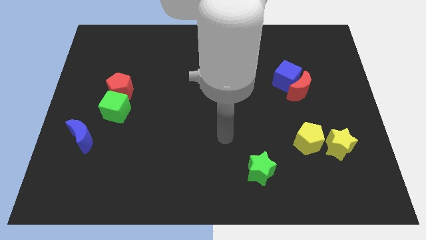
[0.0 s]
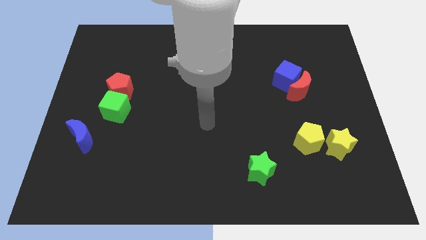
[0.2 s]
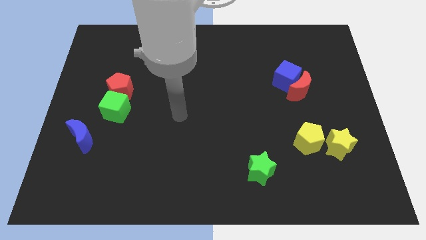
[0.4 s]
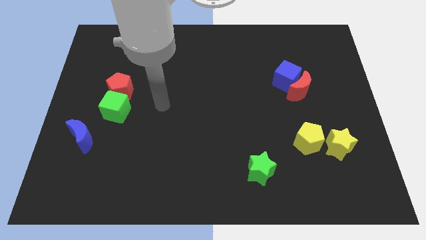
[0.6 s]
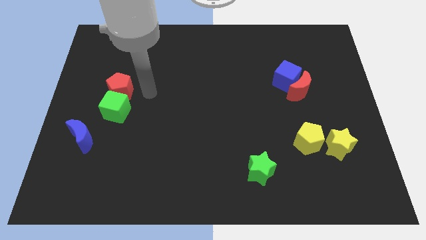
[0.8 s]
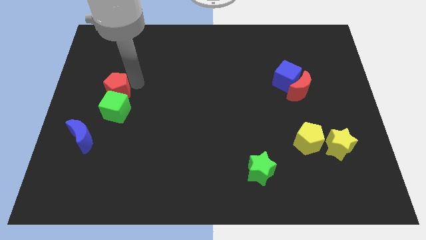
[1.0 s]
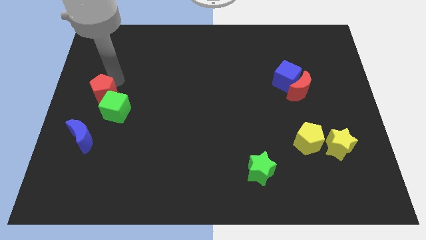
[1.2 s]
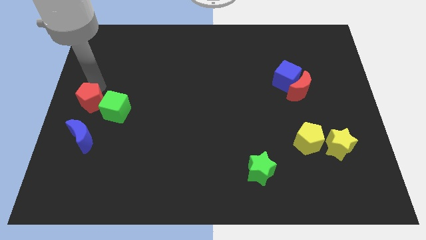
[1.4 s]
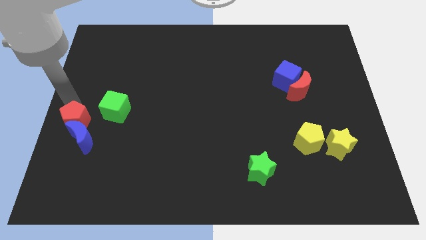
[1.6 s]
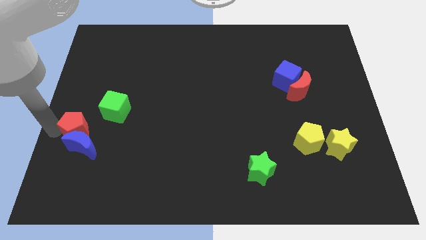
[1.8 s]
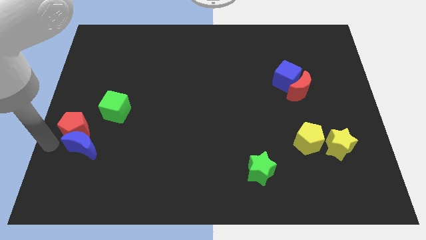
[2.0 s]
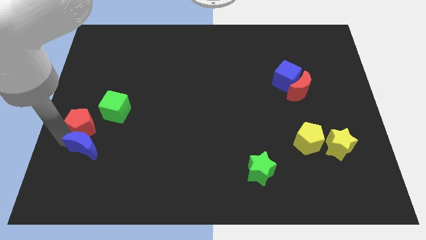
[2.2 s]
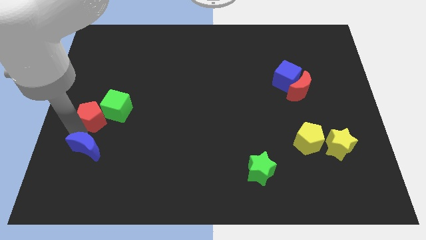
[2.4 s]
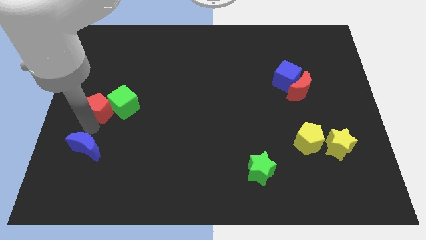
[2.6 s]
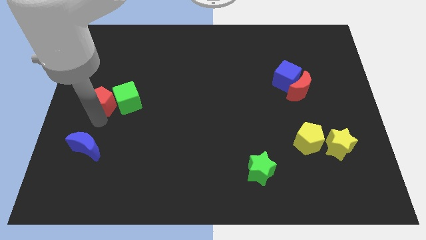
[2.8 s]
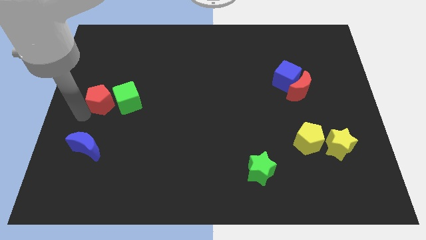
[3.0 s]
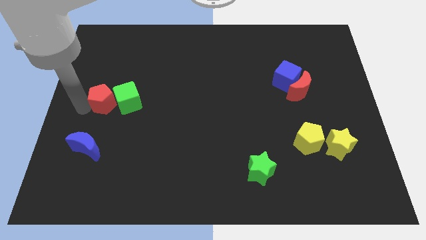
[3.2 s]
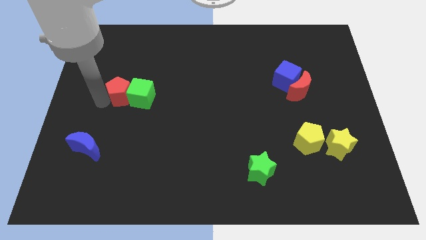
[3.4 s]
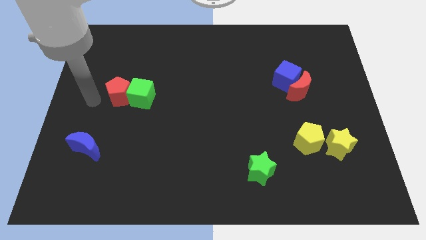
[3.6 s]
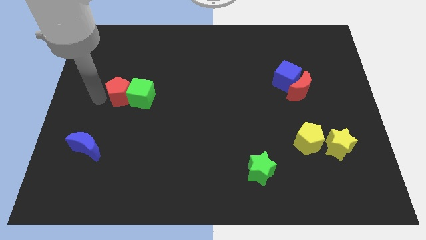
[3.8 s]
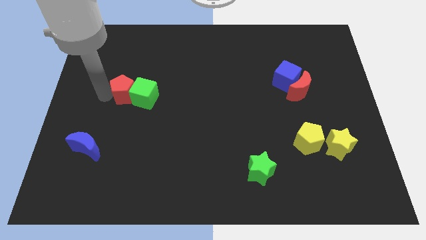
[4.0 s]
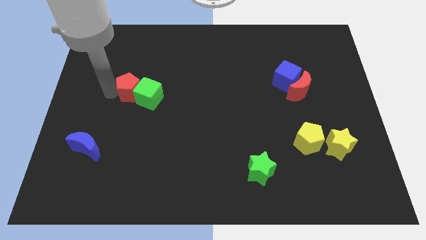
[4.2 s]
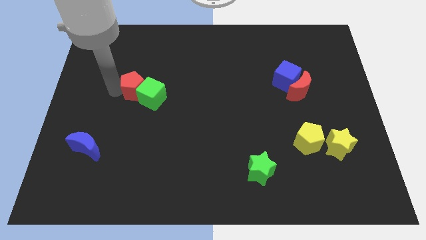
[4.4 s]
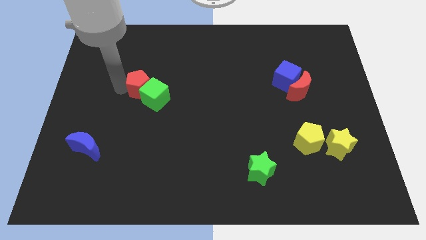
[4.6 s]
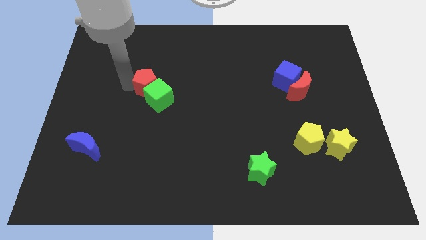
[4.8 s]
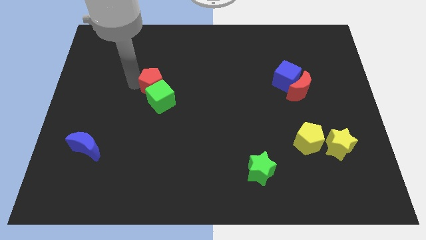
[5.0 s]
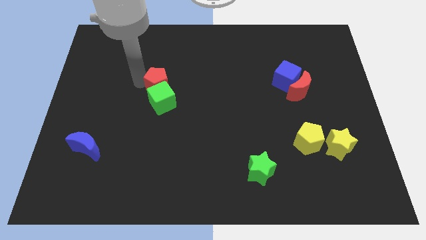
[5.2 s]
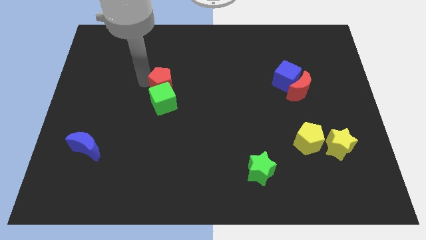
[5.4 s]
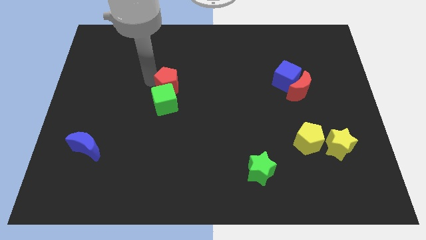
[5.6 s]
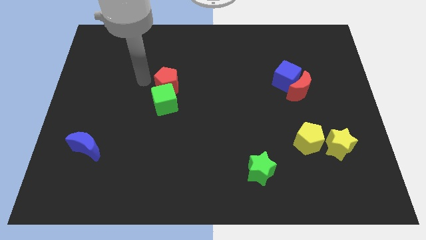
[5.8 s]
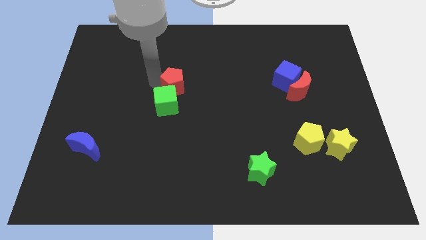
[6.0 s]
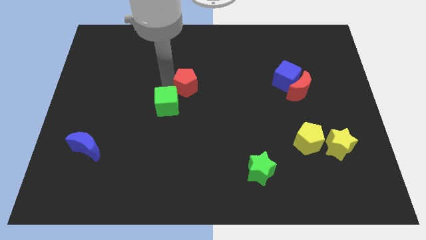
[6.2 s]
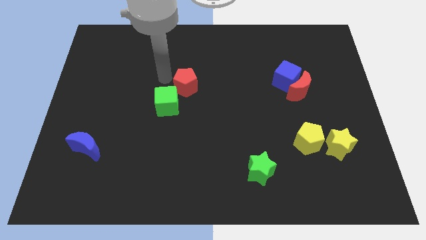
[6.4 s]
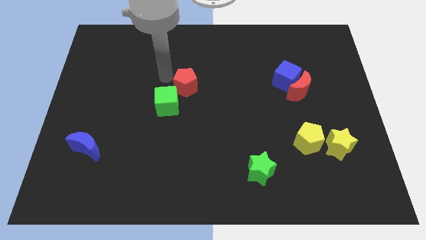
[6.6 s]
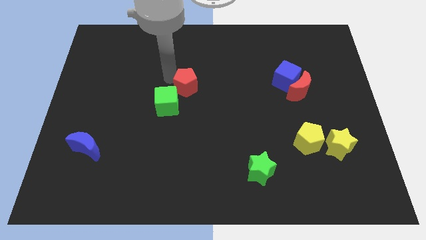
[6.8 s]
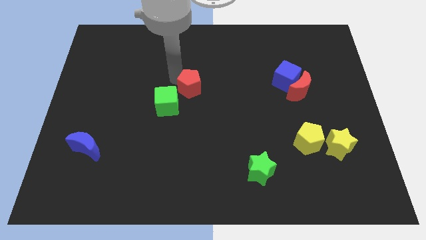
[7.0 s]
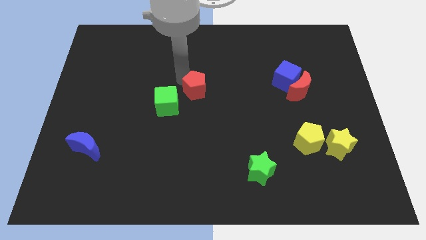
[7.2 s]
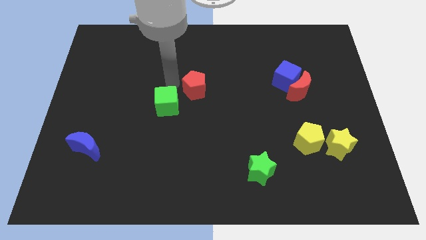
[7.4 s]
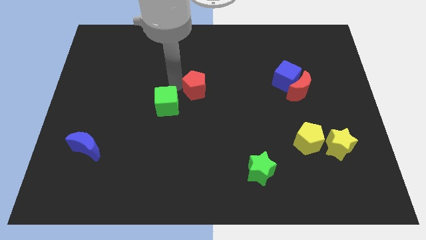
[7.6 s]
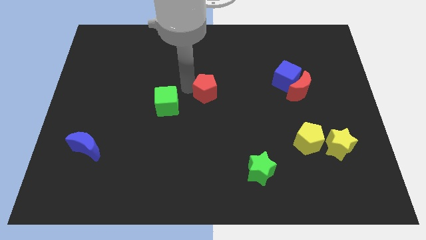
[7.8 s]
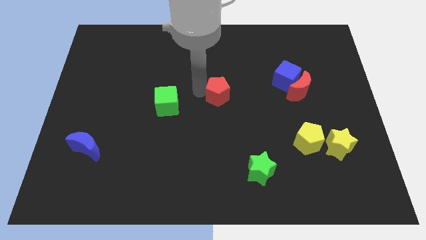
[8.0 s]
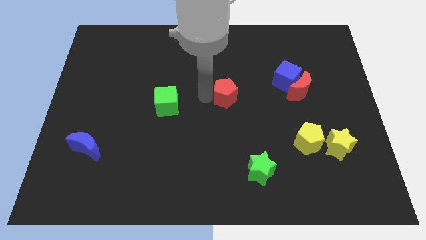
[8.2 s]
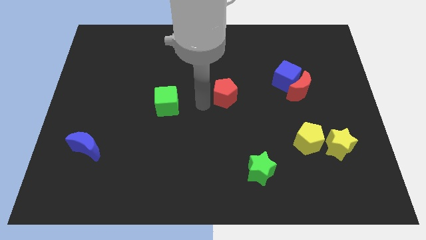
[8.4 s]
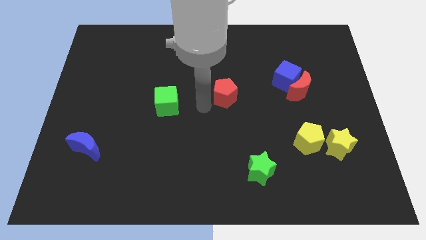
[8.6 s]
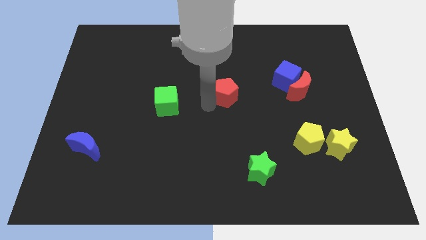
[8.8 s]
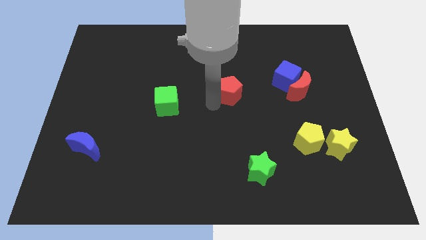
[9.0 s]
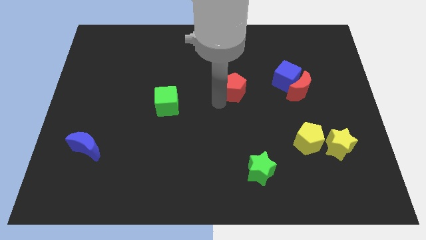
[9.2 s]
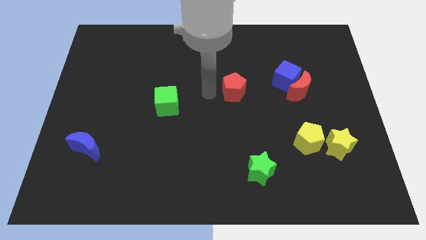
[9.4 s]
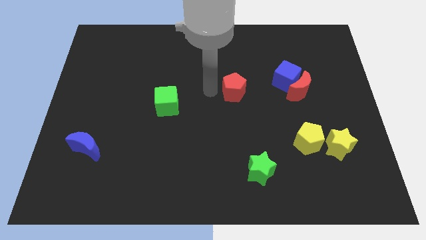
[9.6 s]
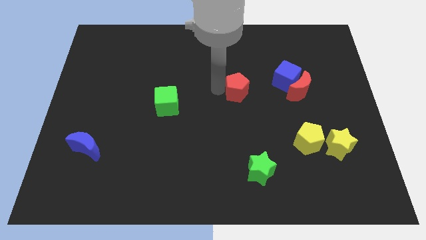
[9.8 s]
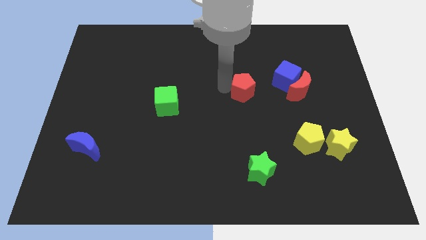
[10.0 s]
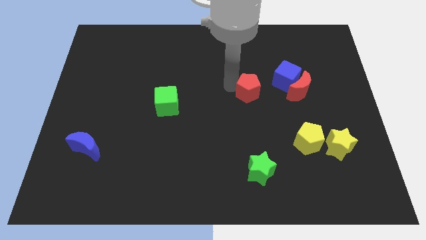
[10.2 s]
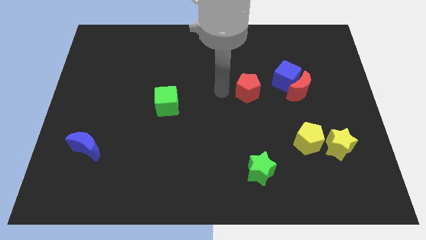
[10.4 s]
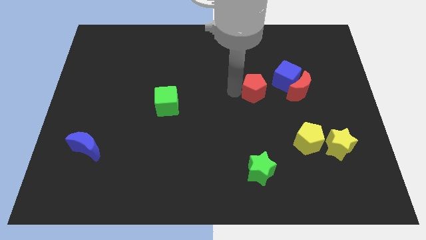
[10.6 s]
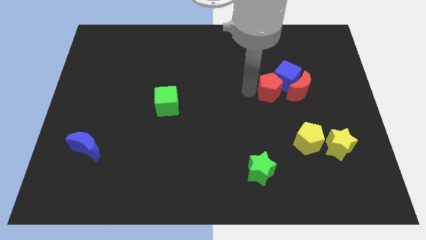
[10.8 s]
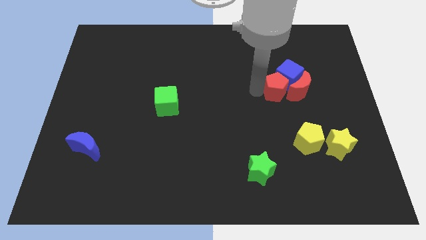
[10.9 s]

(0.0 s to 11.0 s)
put the red pentagon next to the red moon

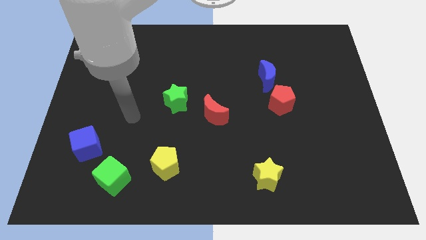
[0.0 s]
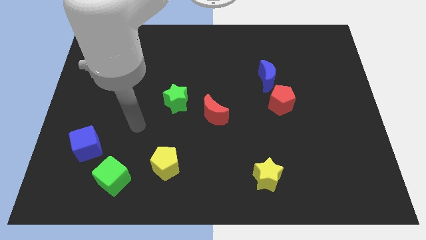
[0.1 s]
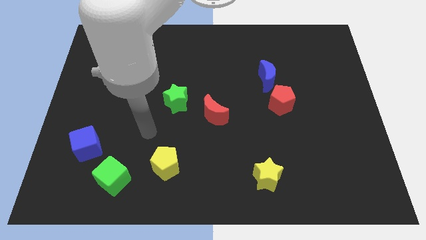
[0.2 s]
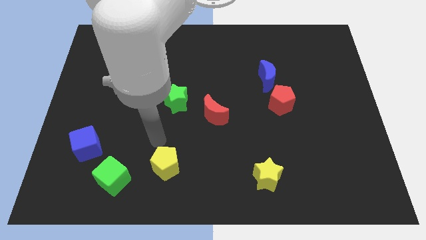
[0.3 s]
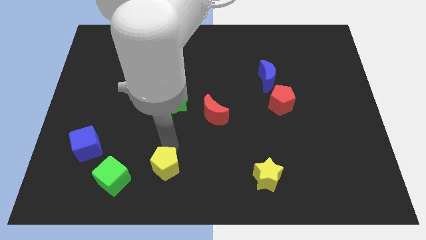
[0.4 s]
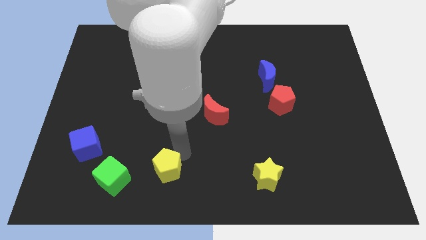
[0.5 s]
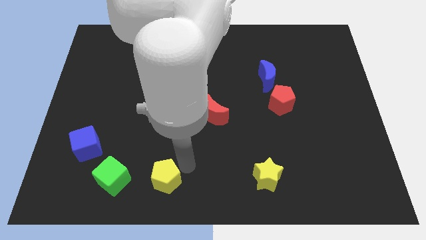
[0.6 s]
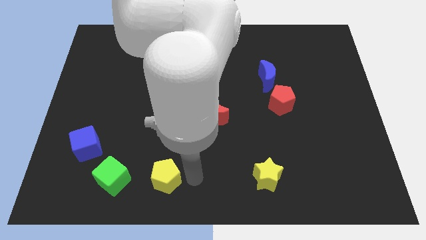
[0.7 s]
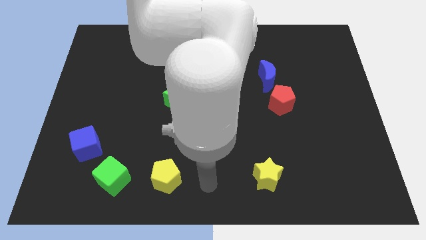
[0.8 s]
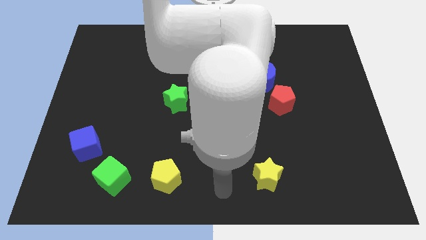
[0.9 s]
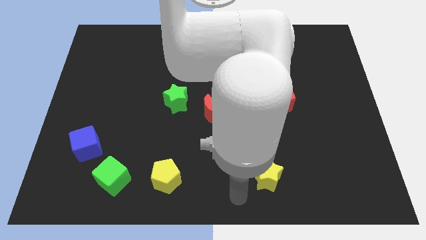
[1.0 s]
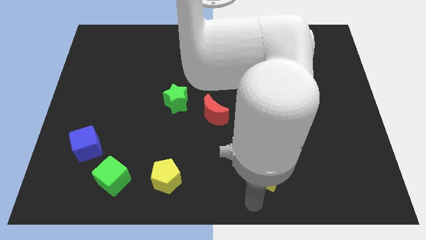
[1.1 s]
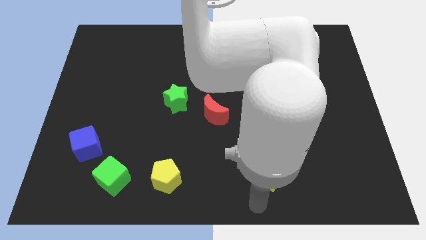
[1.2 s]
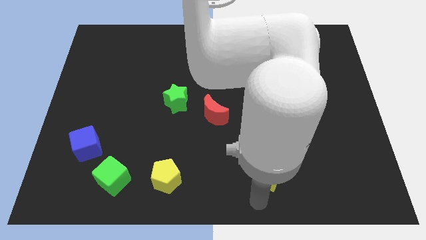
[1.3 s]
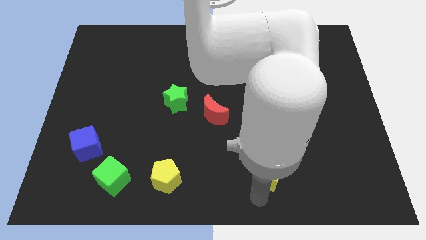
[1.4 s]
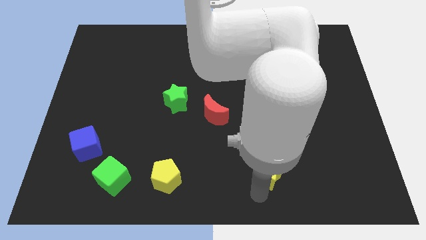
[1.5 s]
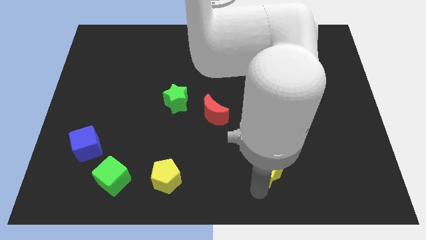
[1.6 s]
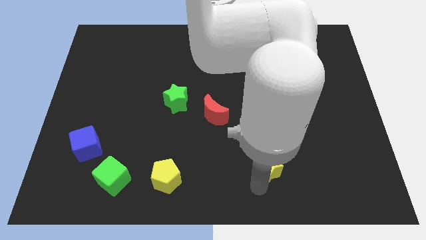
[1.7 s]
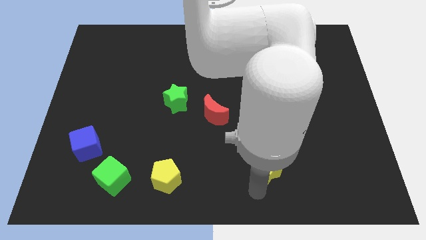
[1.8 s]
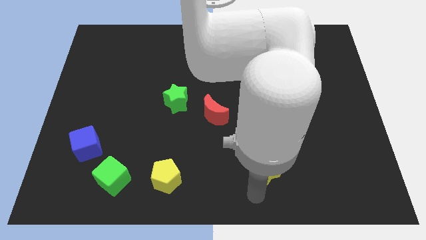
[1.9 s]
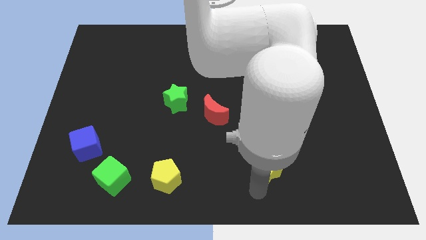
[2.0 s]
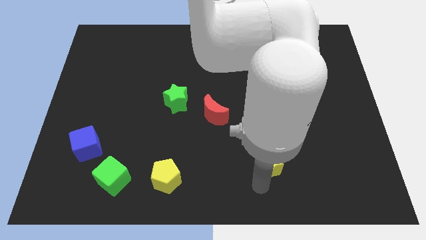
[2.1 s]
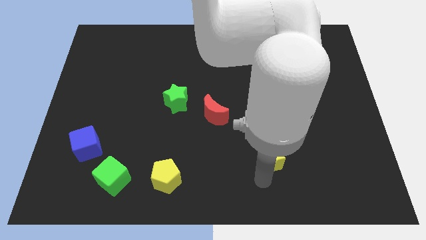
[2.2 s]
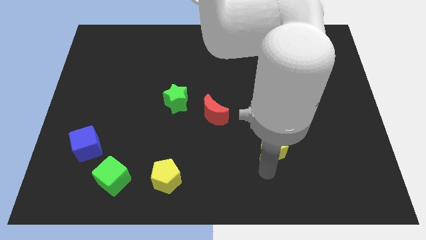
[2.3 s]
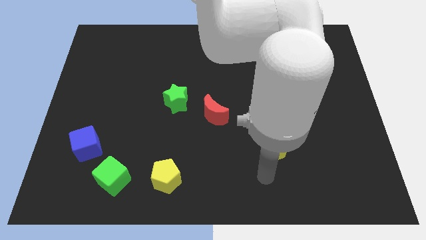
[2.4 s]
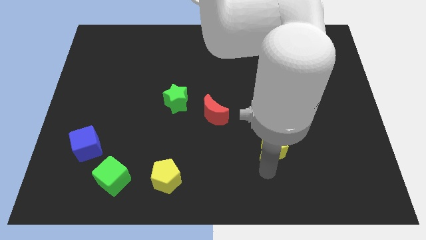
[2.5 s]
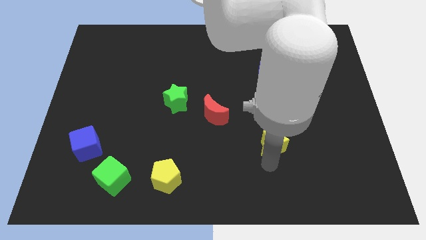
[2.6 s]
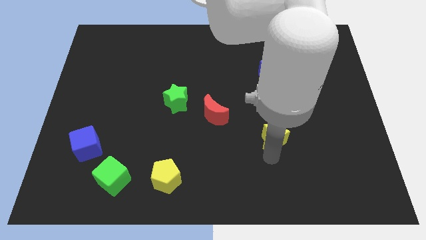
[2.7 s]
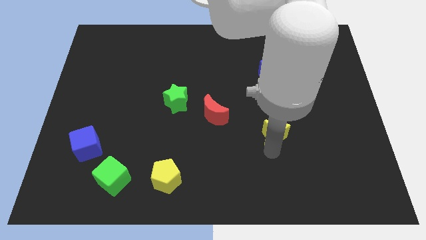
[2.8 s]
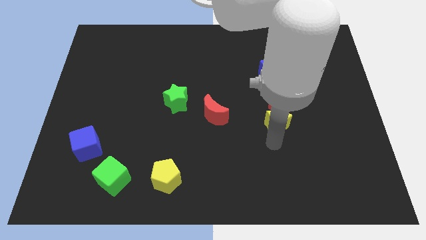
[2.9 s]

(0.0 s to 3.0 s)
put the yellow star next to the red pentagon

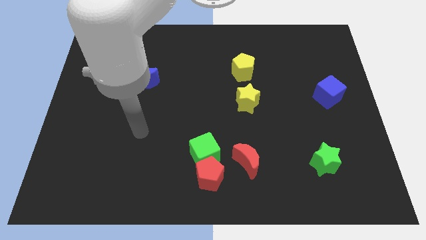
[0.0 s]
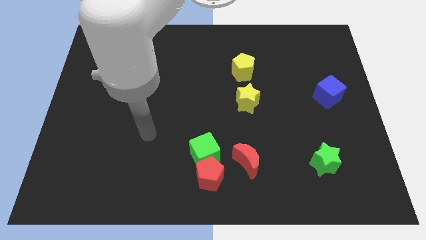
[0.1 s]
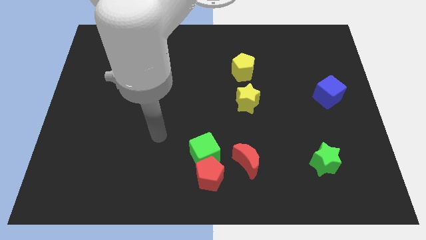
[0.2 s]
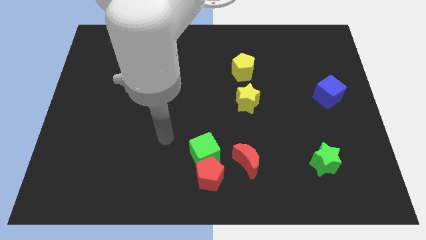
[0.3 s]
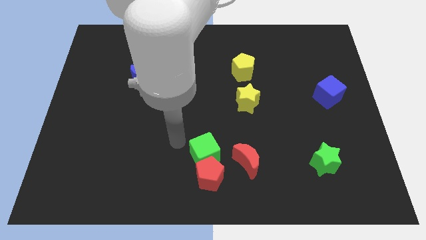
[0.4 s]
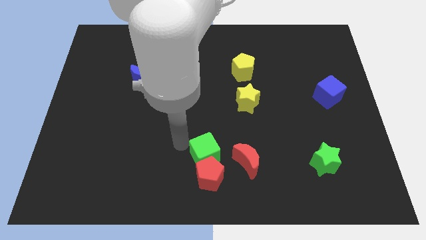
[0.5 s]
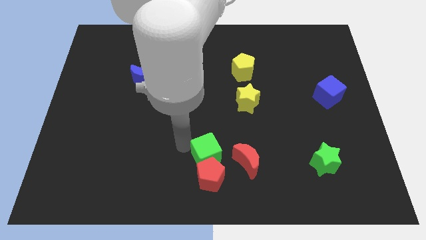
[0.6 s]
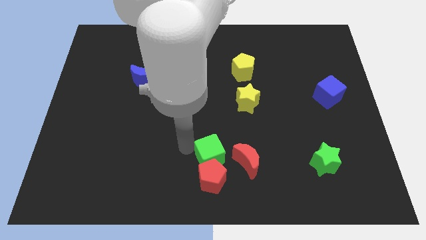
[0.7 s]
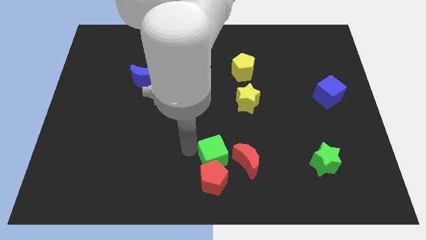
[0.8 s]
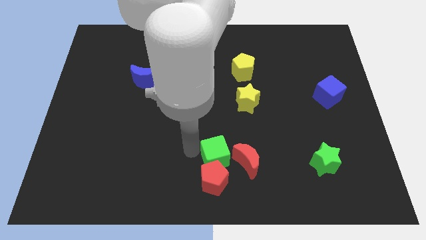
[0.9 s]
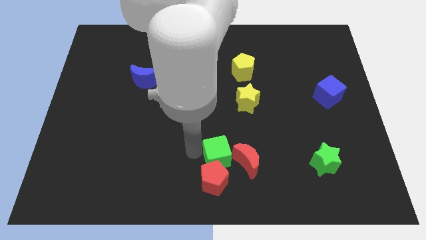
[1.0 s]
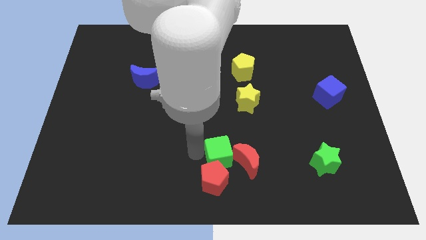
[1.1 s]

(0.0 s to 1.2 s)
slide the green cube next to the red moon
